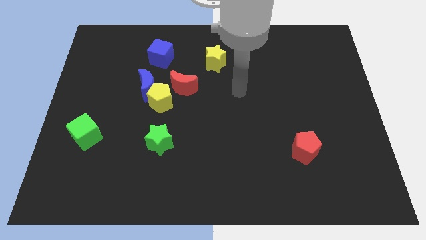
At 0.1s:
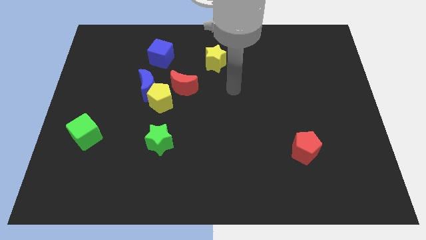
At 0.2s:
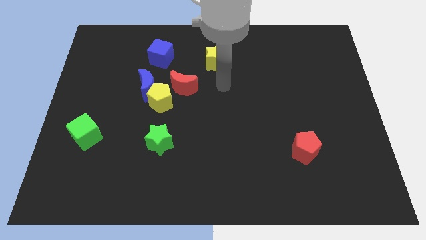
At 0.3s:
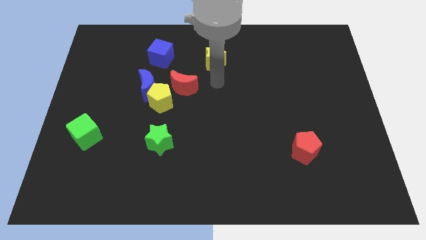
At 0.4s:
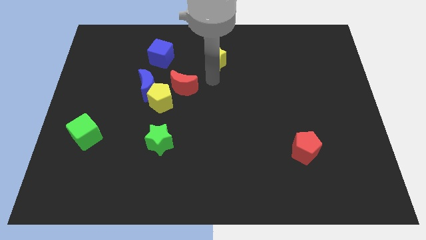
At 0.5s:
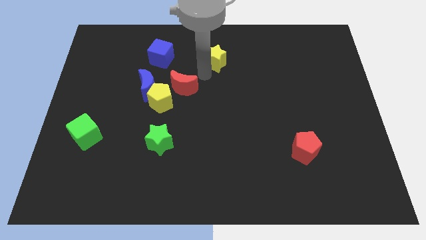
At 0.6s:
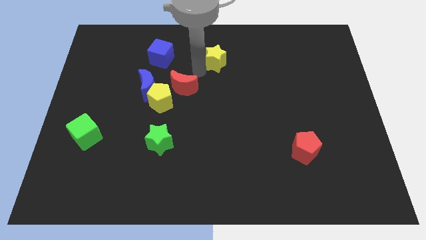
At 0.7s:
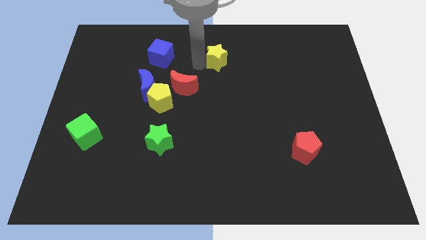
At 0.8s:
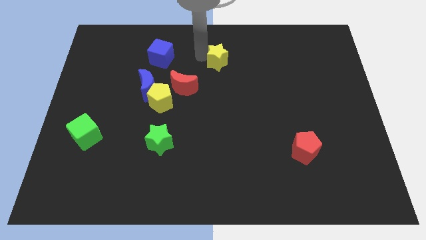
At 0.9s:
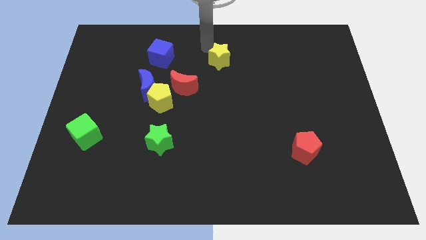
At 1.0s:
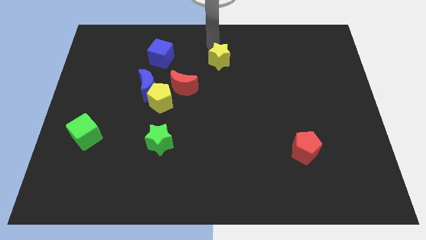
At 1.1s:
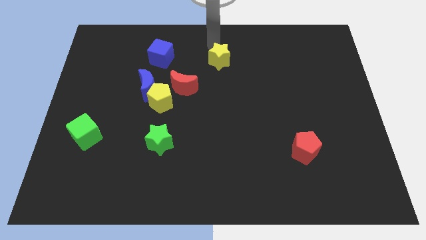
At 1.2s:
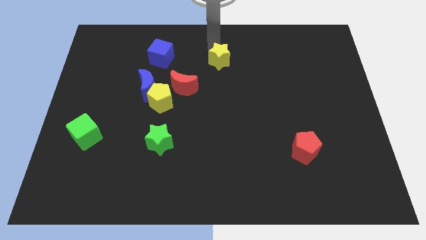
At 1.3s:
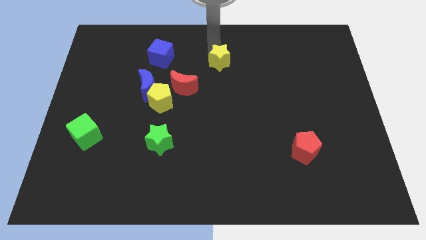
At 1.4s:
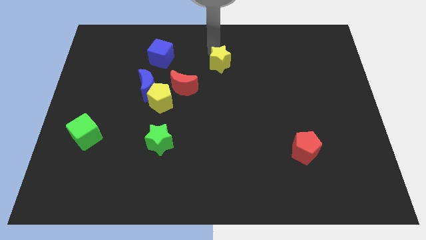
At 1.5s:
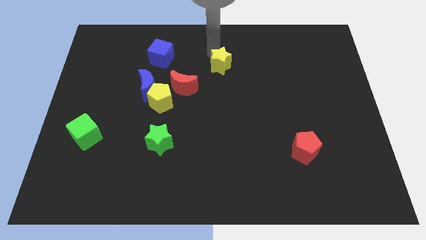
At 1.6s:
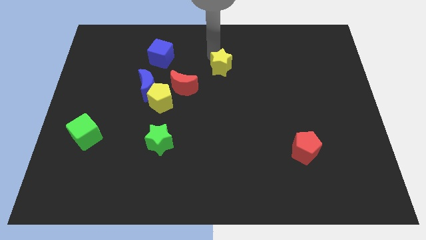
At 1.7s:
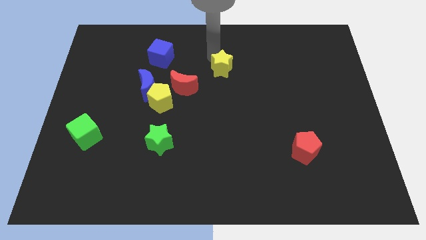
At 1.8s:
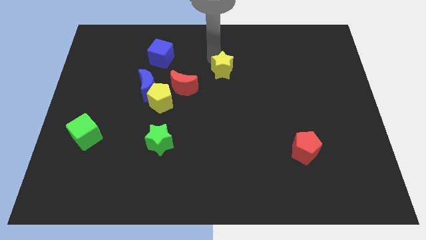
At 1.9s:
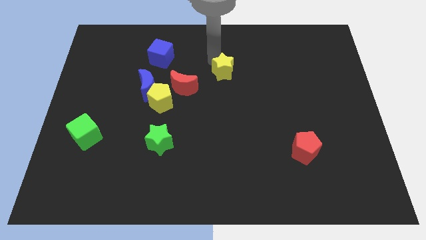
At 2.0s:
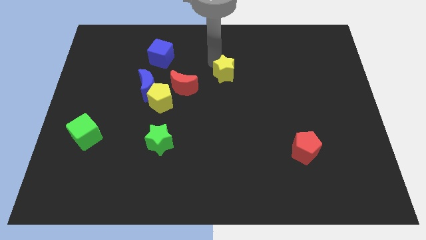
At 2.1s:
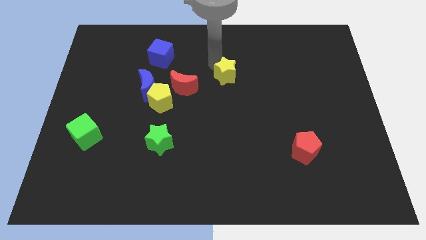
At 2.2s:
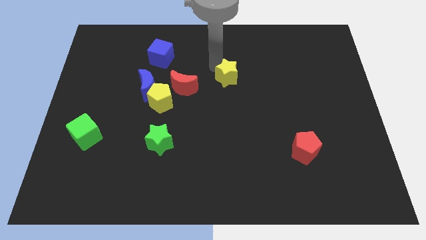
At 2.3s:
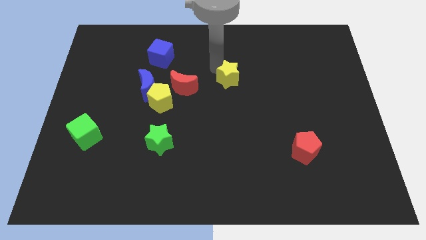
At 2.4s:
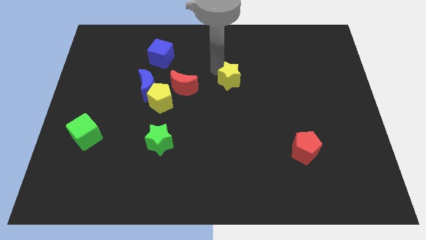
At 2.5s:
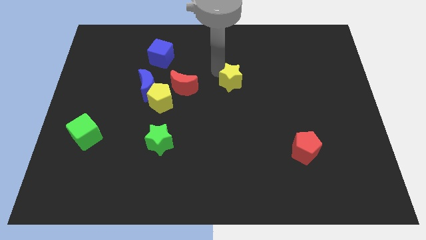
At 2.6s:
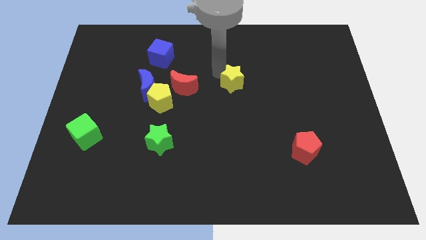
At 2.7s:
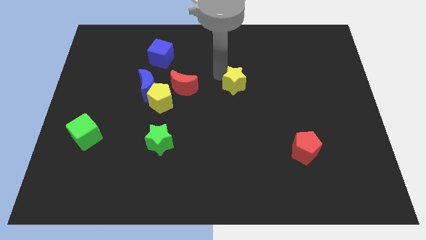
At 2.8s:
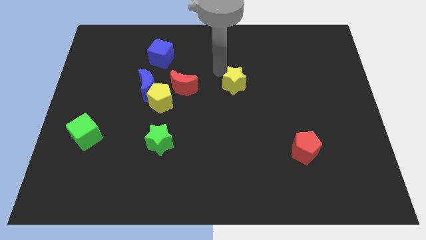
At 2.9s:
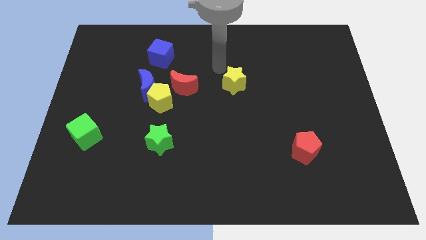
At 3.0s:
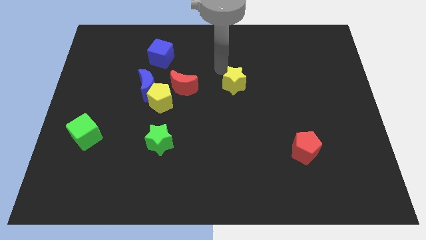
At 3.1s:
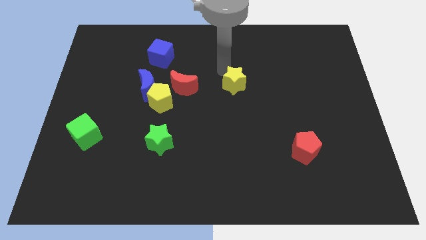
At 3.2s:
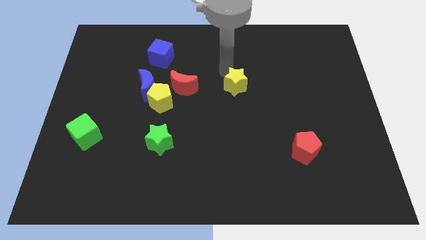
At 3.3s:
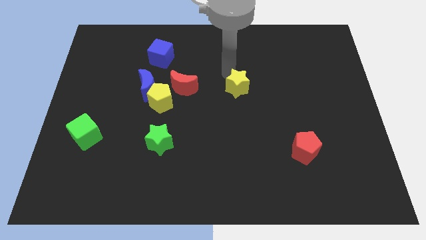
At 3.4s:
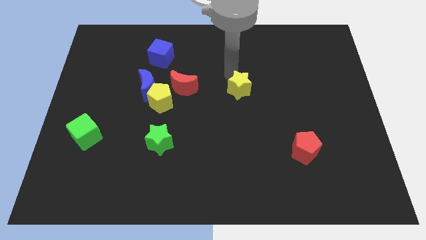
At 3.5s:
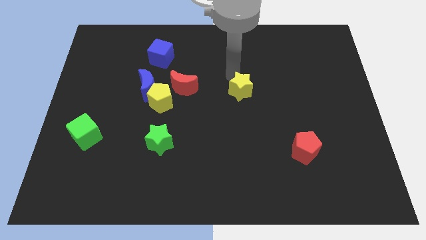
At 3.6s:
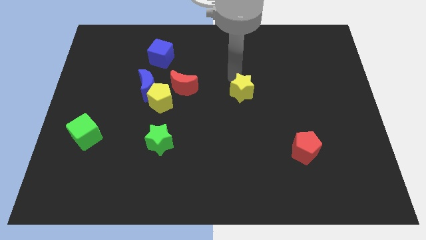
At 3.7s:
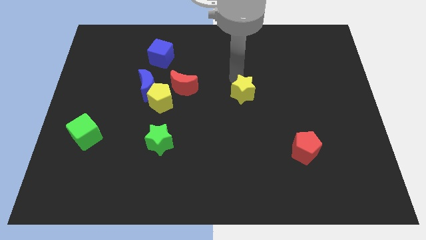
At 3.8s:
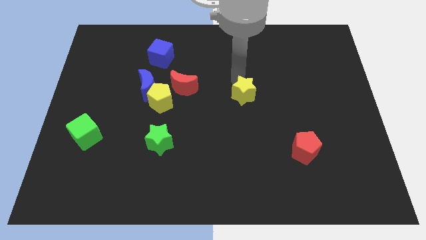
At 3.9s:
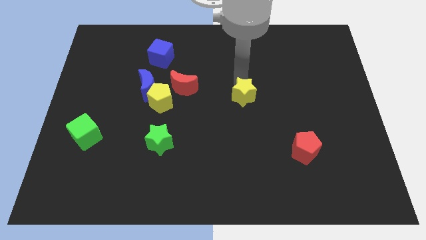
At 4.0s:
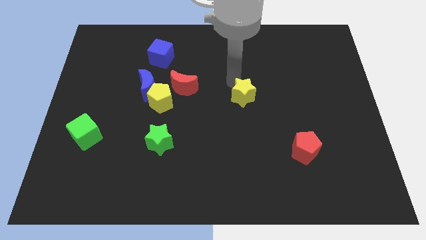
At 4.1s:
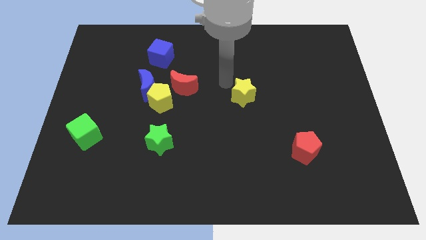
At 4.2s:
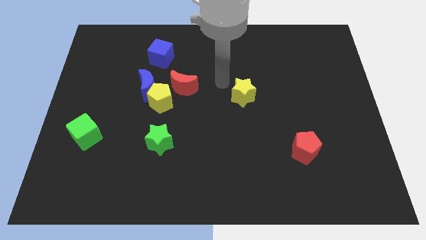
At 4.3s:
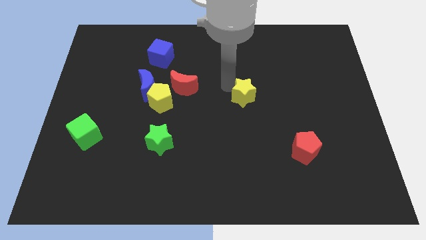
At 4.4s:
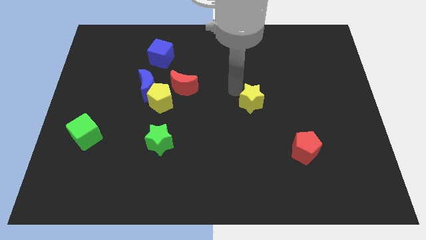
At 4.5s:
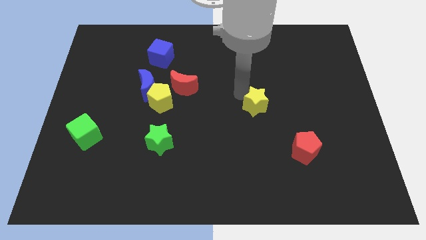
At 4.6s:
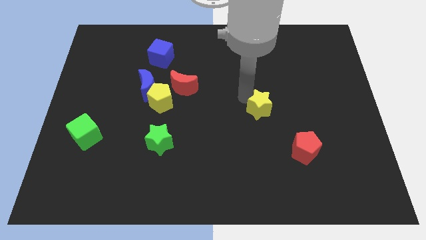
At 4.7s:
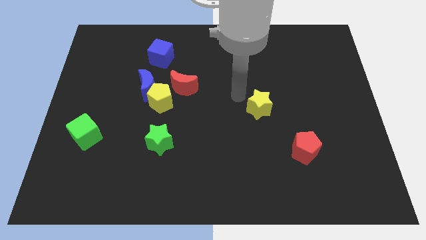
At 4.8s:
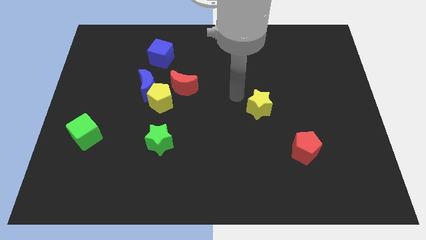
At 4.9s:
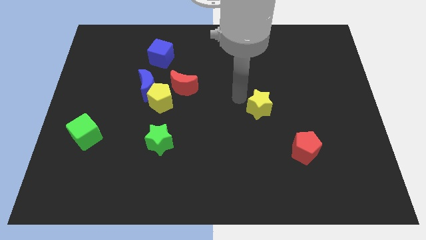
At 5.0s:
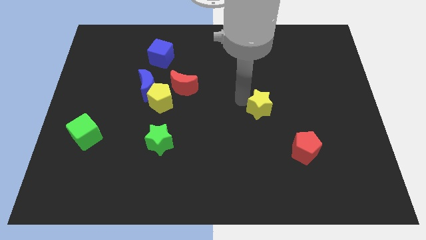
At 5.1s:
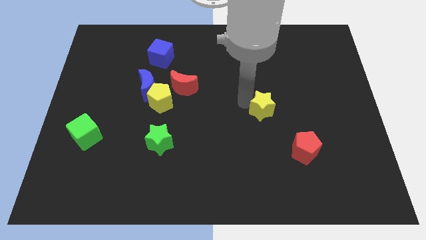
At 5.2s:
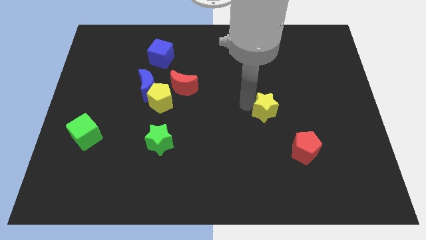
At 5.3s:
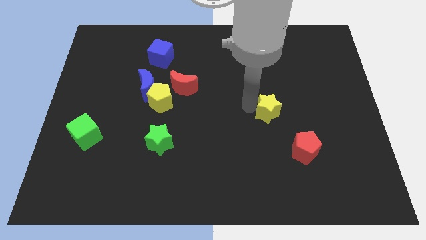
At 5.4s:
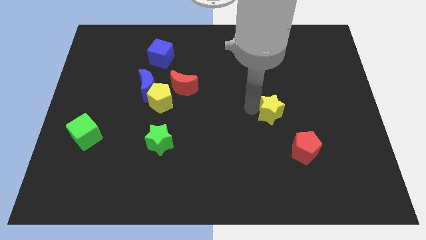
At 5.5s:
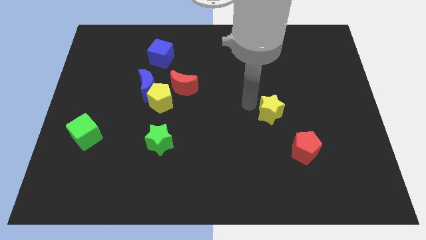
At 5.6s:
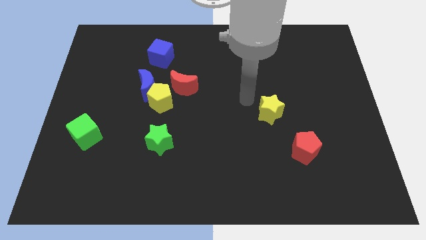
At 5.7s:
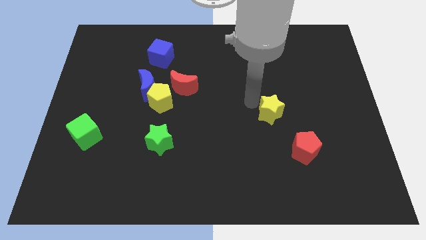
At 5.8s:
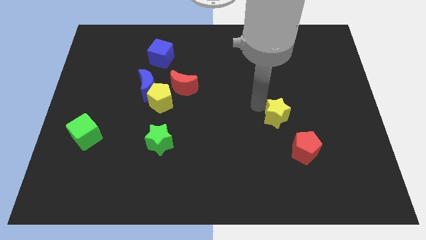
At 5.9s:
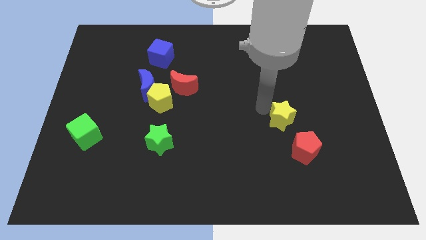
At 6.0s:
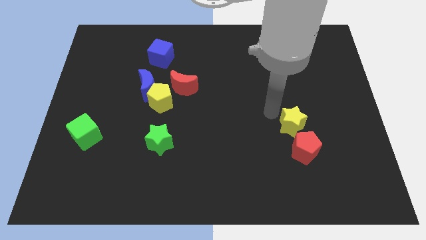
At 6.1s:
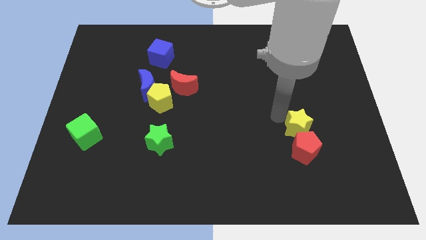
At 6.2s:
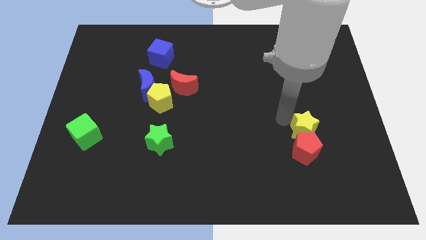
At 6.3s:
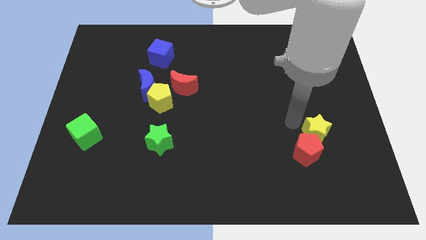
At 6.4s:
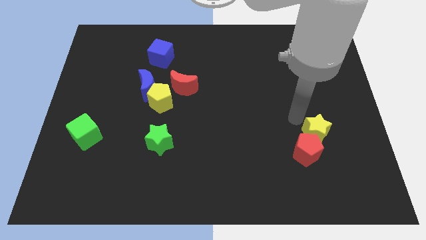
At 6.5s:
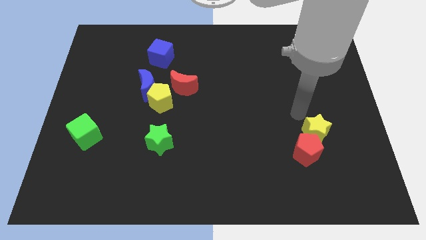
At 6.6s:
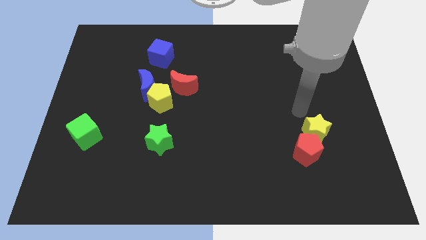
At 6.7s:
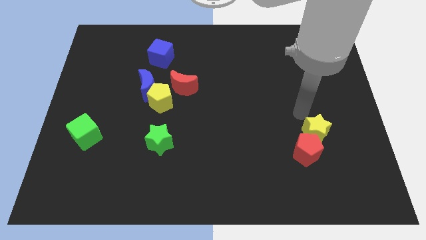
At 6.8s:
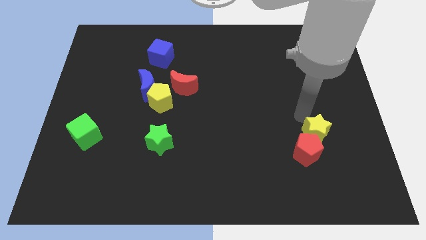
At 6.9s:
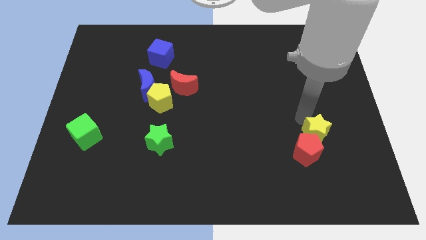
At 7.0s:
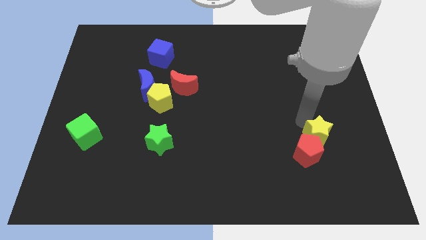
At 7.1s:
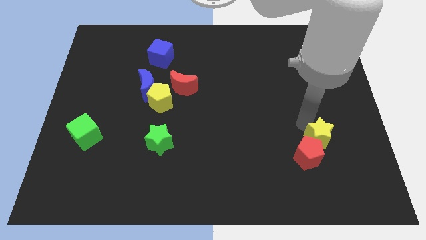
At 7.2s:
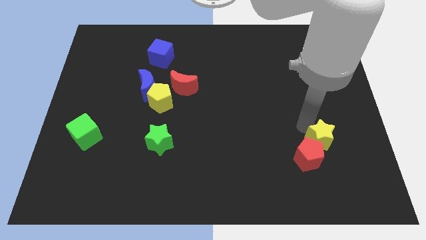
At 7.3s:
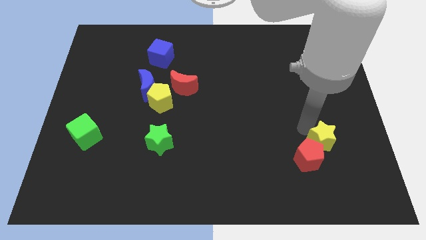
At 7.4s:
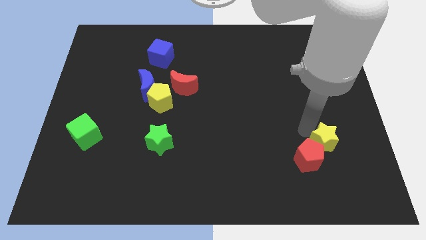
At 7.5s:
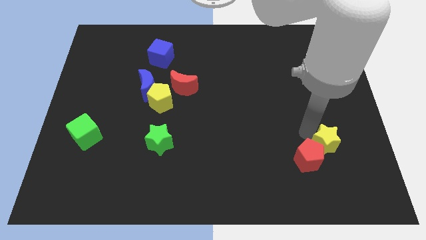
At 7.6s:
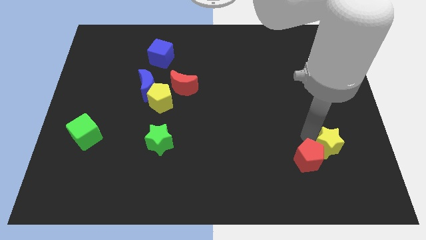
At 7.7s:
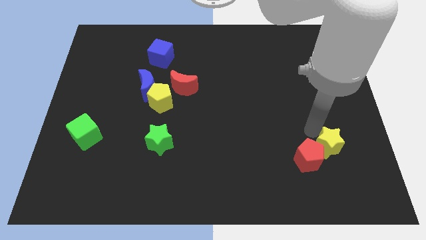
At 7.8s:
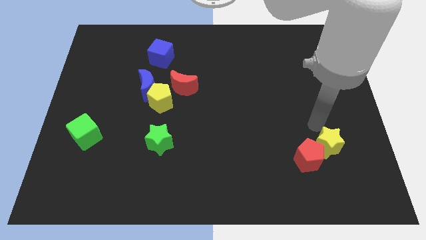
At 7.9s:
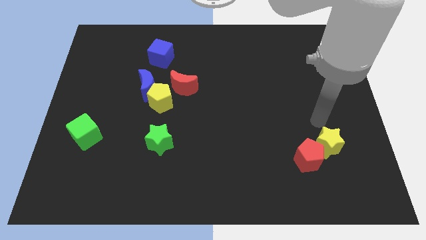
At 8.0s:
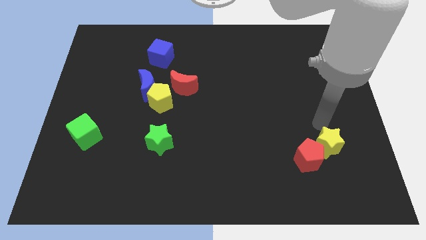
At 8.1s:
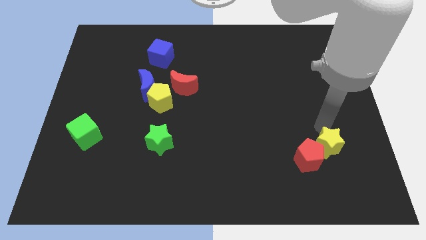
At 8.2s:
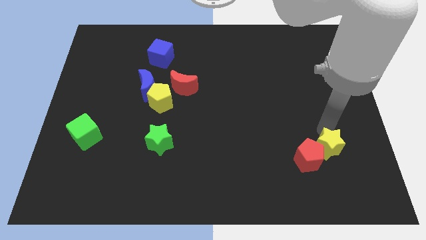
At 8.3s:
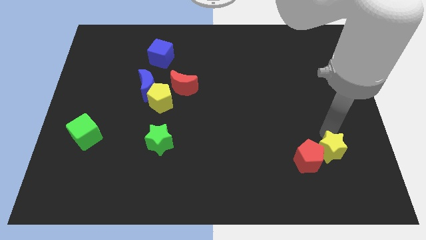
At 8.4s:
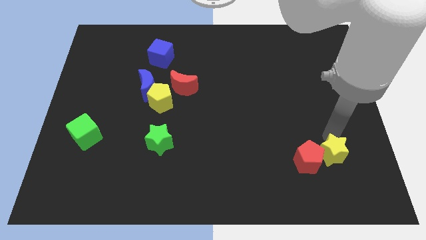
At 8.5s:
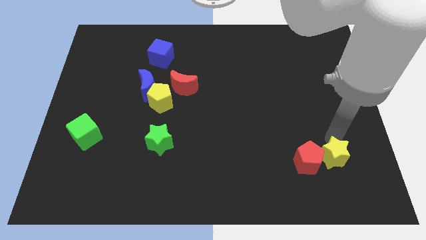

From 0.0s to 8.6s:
put the yellow star diagonally down and to the right of the red pentagon

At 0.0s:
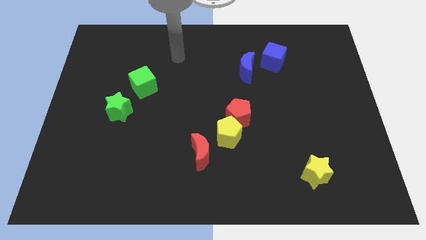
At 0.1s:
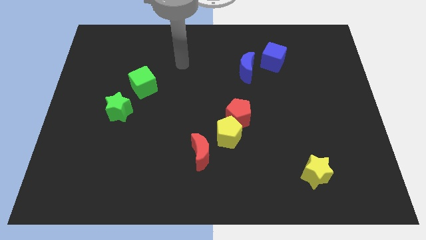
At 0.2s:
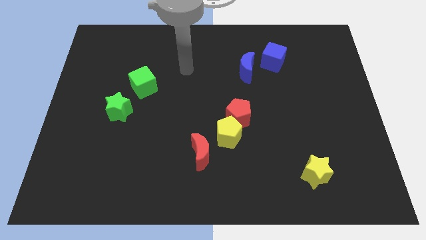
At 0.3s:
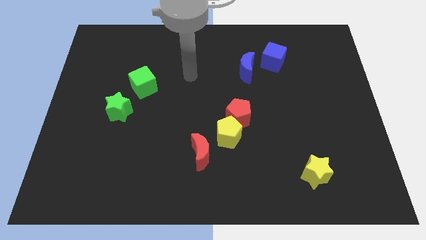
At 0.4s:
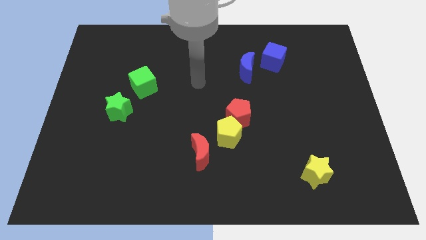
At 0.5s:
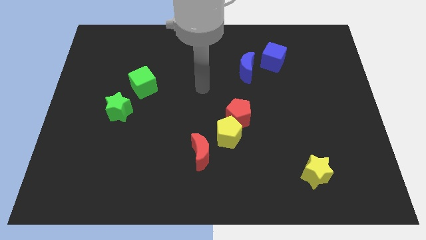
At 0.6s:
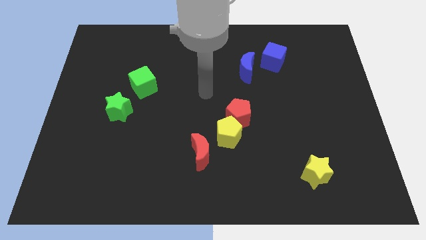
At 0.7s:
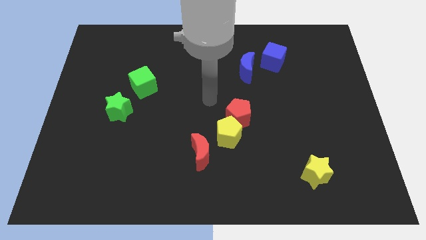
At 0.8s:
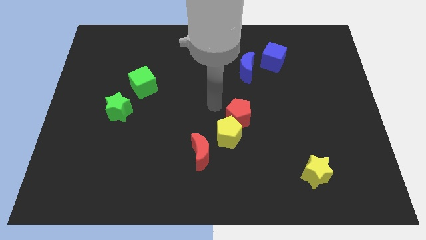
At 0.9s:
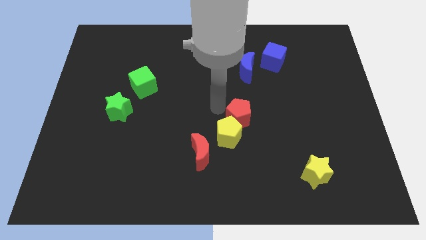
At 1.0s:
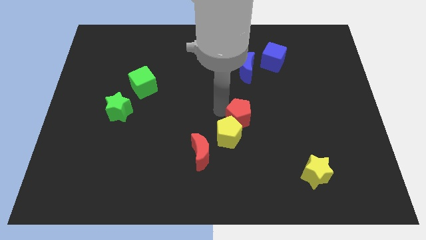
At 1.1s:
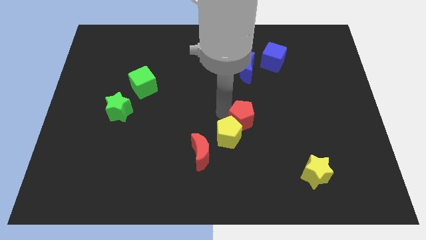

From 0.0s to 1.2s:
put the red pentagon to the right side of the yellow pentagon
